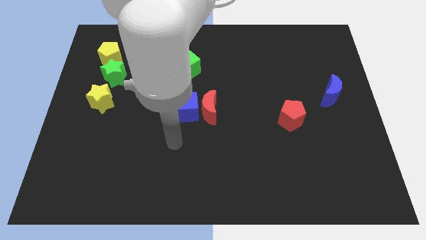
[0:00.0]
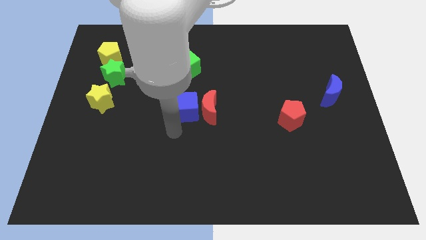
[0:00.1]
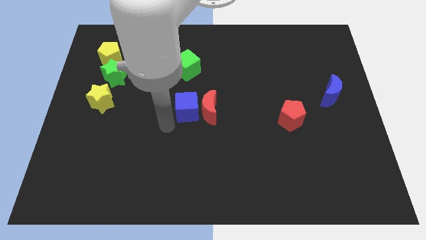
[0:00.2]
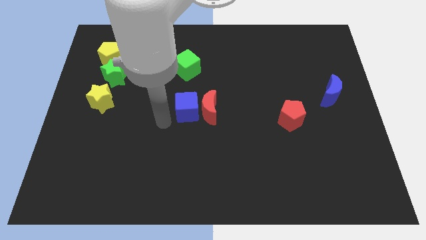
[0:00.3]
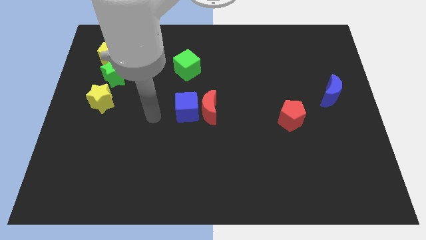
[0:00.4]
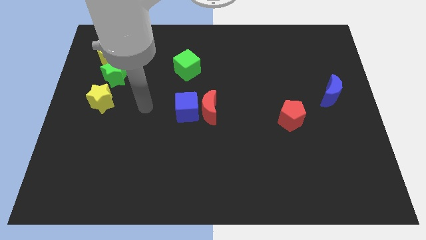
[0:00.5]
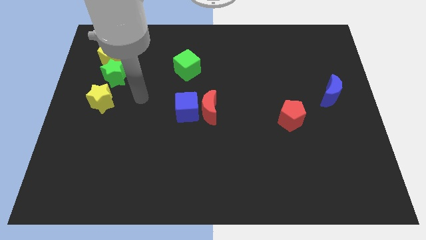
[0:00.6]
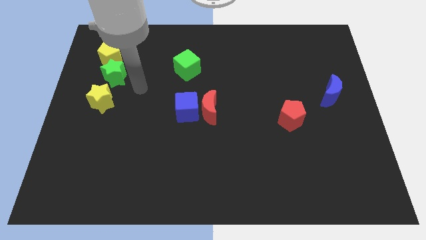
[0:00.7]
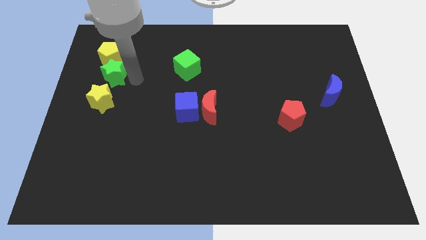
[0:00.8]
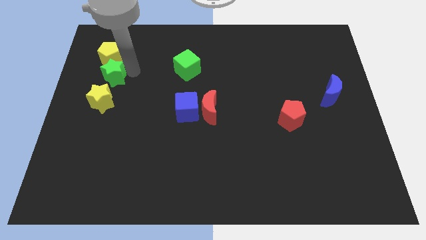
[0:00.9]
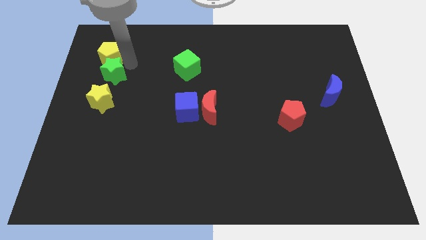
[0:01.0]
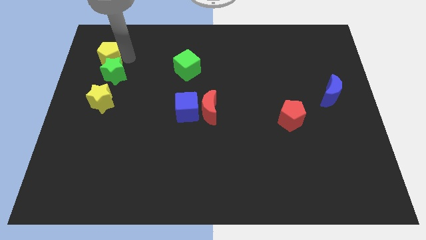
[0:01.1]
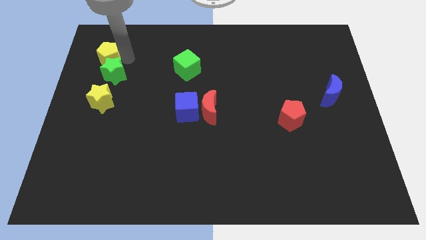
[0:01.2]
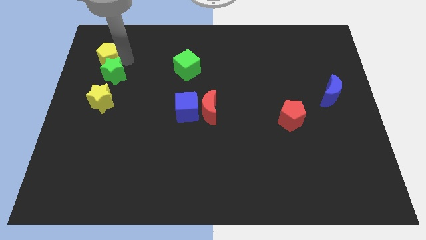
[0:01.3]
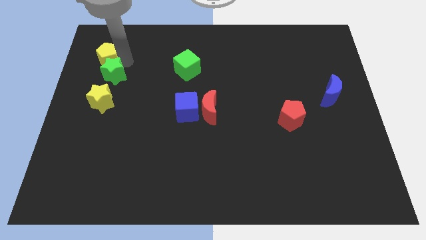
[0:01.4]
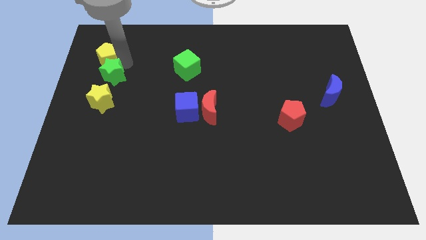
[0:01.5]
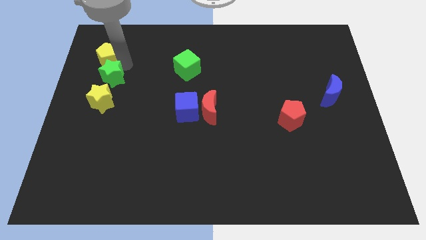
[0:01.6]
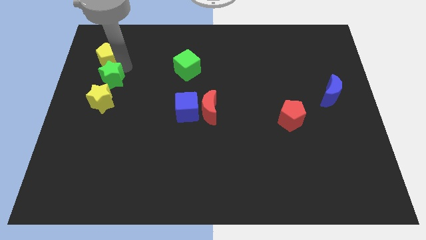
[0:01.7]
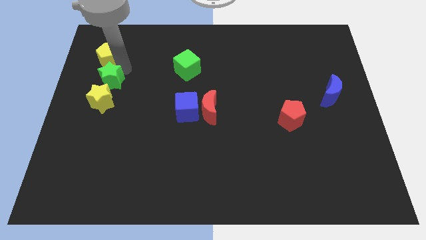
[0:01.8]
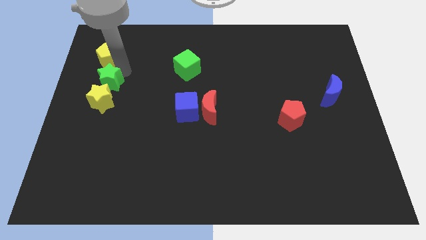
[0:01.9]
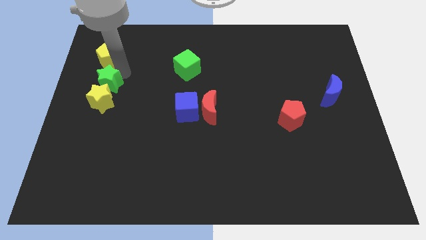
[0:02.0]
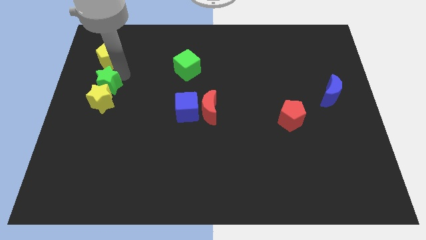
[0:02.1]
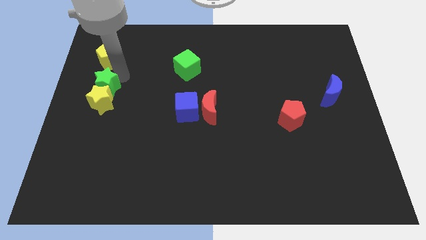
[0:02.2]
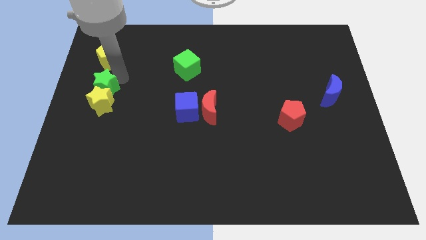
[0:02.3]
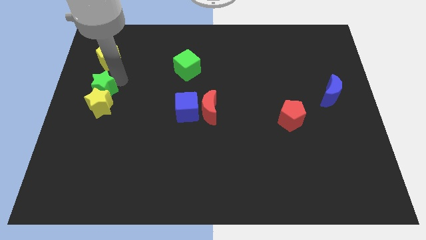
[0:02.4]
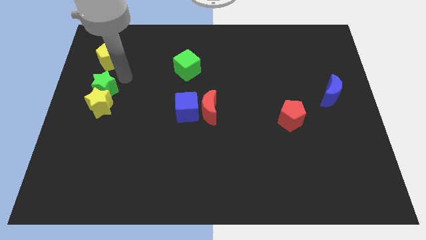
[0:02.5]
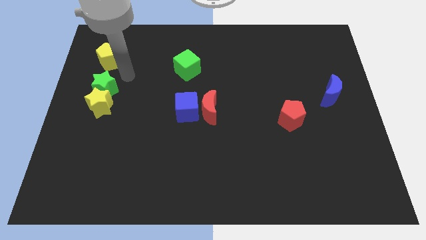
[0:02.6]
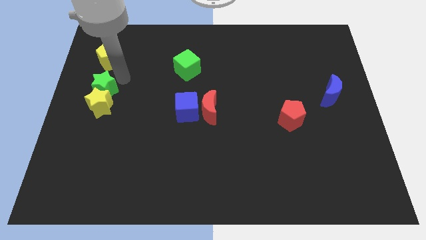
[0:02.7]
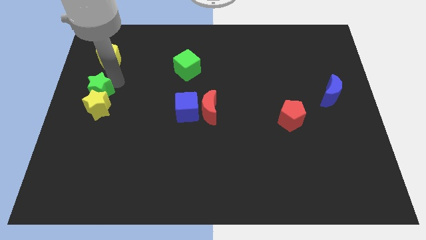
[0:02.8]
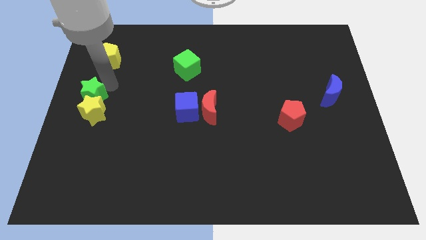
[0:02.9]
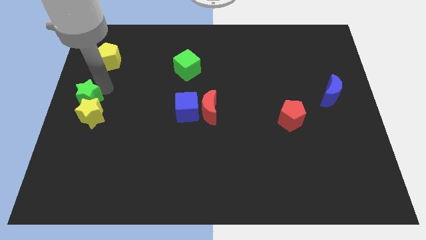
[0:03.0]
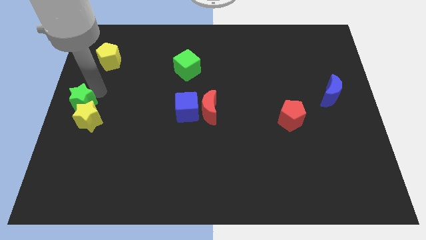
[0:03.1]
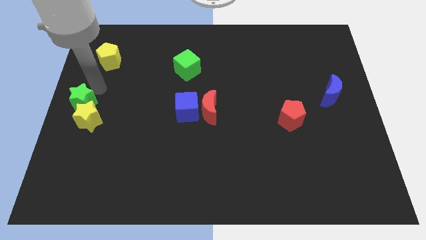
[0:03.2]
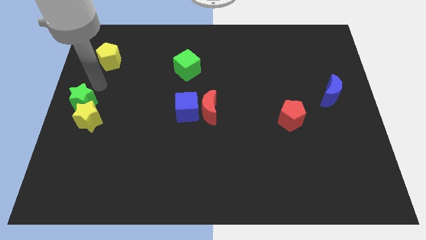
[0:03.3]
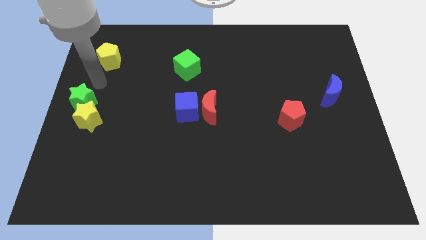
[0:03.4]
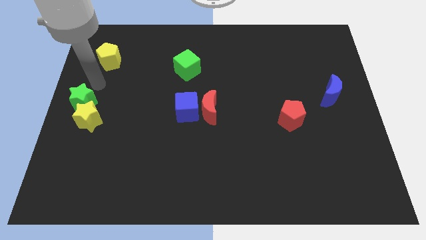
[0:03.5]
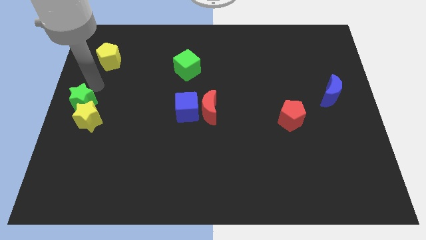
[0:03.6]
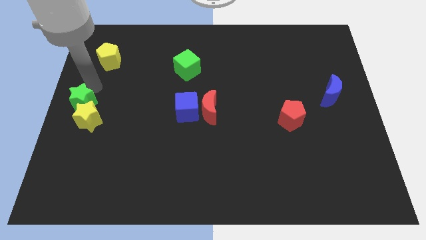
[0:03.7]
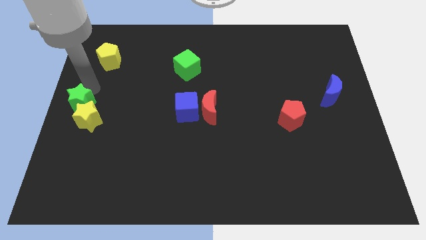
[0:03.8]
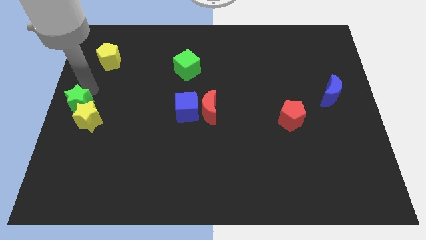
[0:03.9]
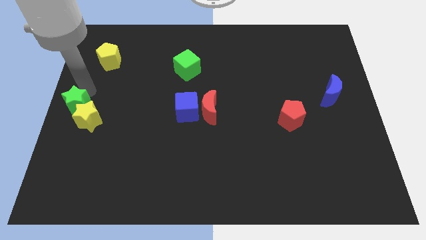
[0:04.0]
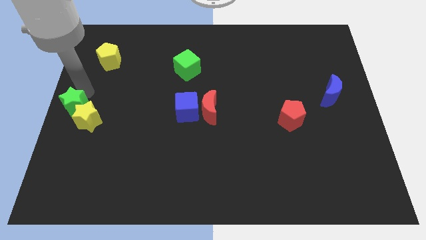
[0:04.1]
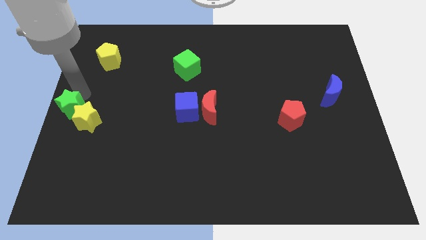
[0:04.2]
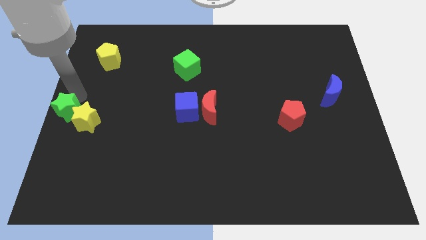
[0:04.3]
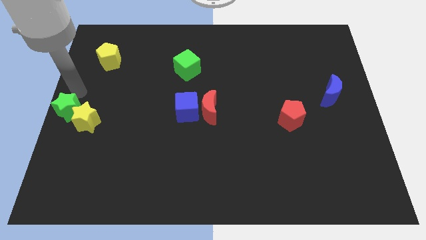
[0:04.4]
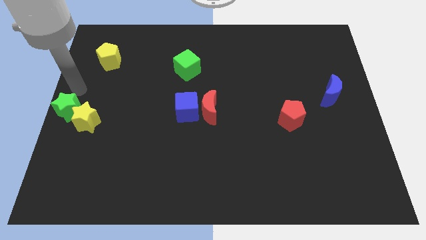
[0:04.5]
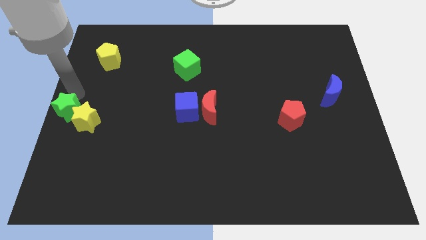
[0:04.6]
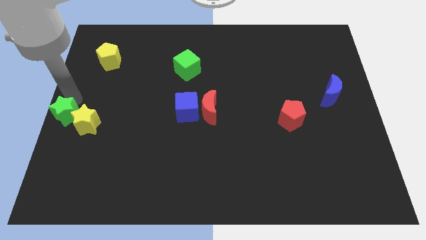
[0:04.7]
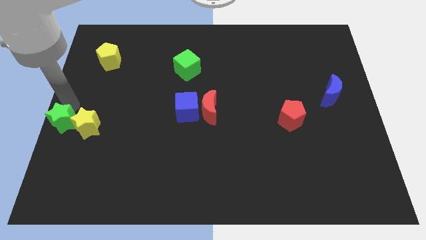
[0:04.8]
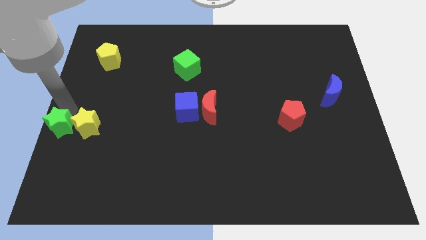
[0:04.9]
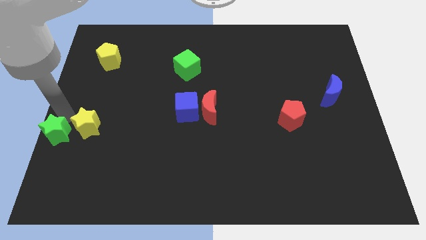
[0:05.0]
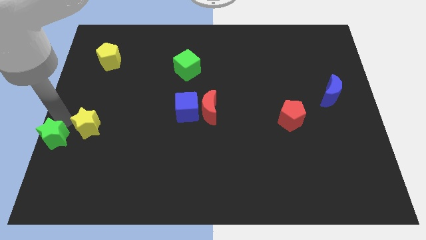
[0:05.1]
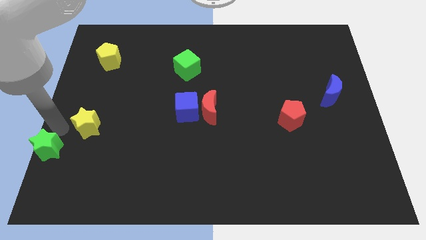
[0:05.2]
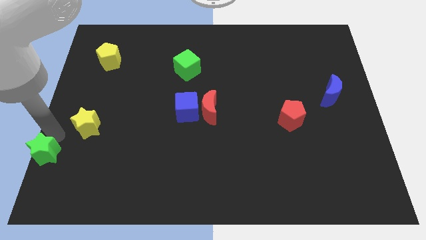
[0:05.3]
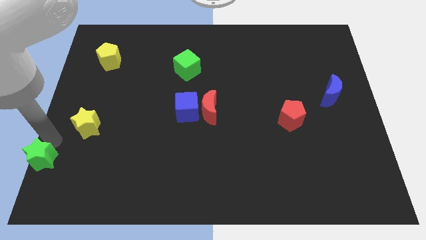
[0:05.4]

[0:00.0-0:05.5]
slide the green star to the bottom left
